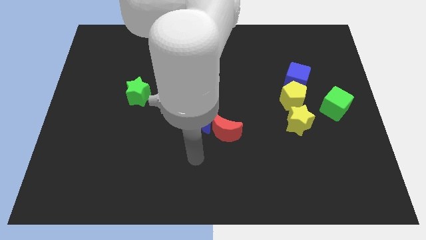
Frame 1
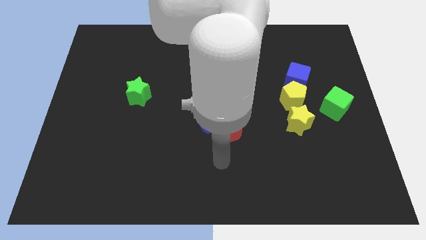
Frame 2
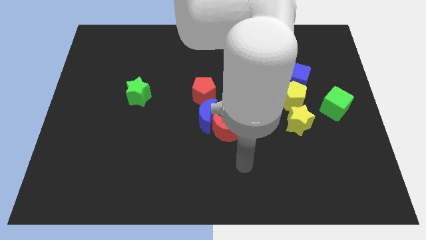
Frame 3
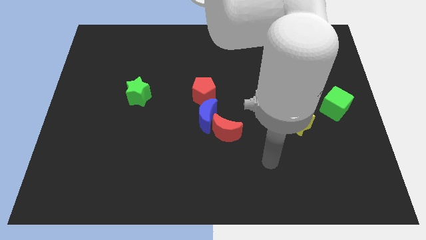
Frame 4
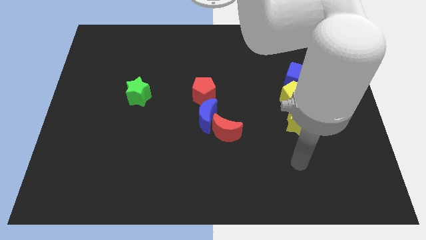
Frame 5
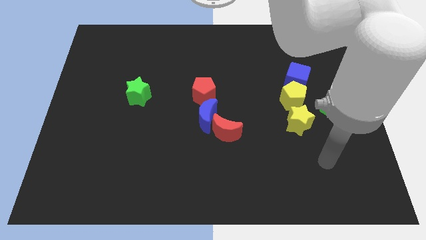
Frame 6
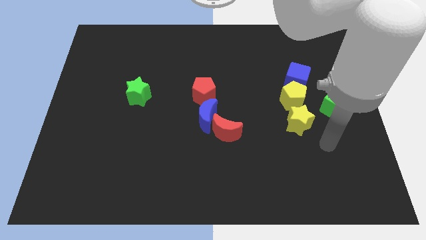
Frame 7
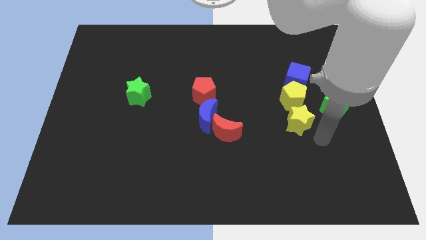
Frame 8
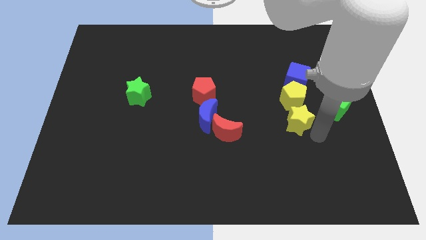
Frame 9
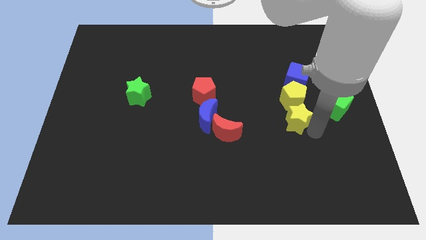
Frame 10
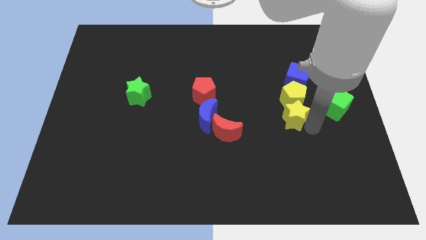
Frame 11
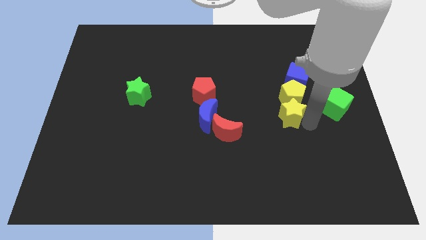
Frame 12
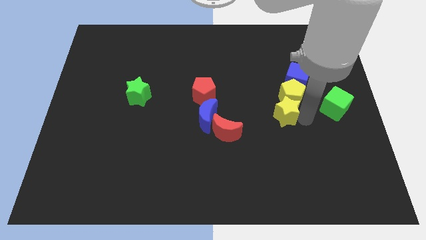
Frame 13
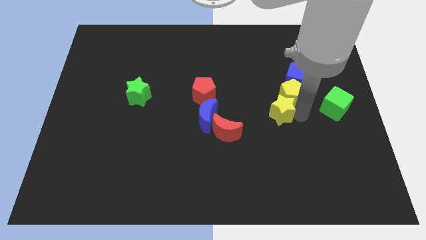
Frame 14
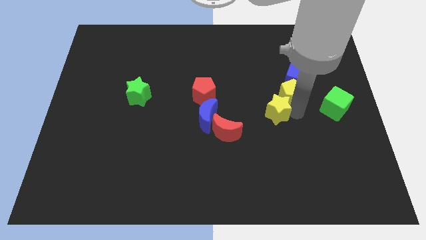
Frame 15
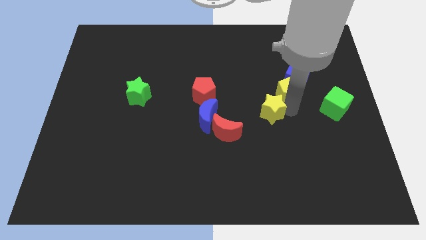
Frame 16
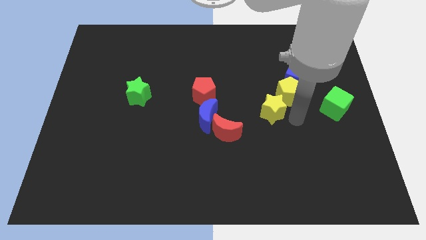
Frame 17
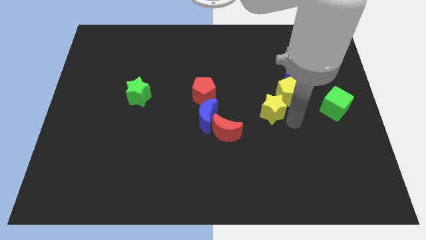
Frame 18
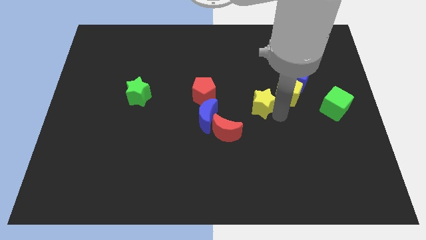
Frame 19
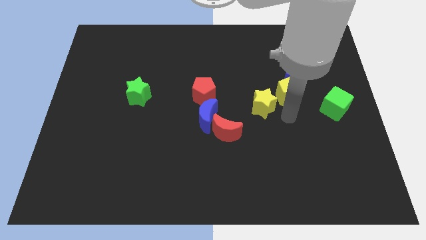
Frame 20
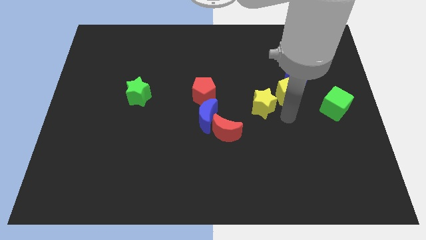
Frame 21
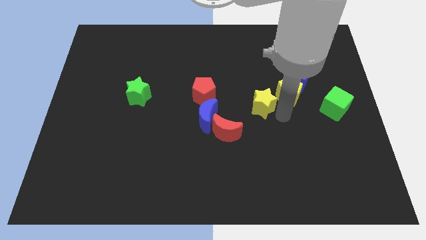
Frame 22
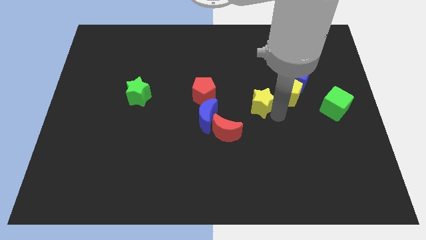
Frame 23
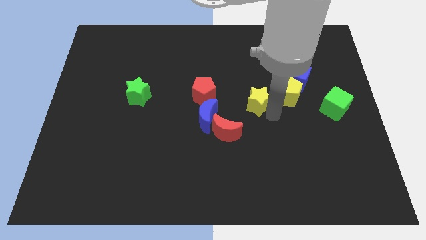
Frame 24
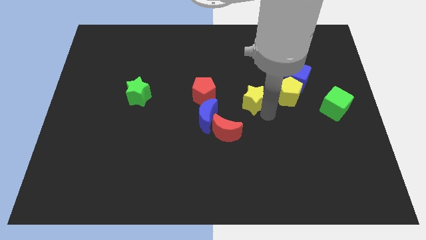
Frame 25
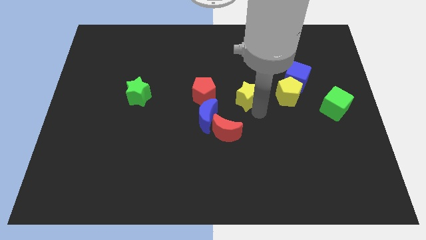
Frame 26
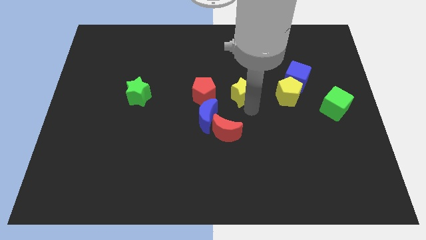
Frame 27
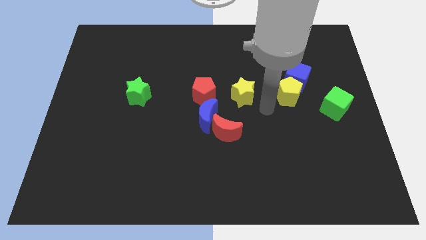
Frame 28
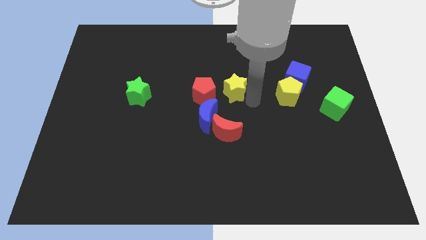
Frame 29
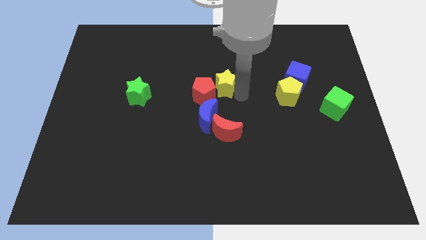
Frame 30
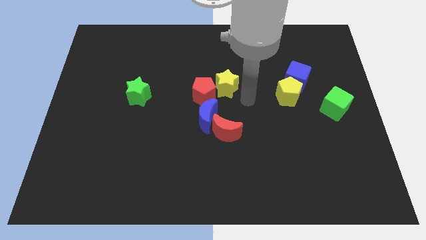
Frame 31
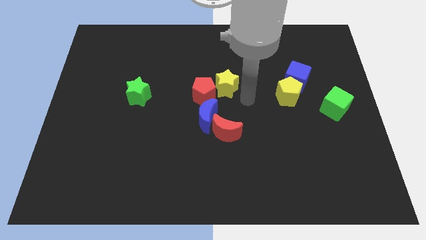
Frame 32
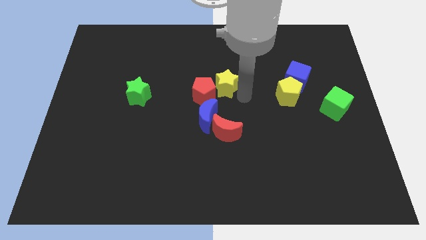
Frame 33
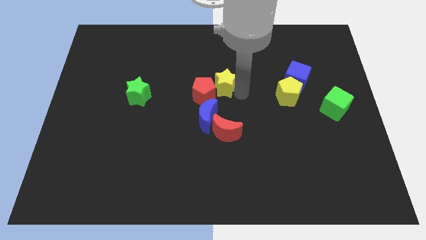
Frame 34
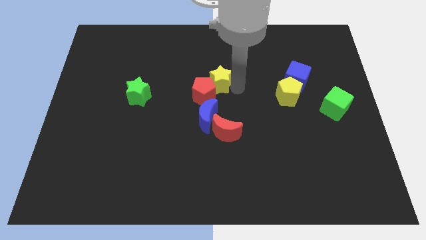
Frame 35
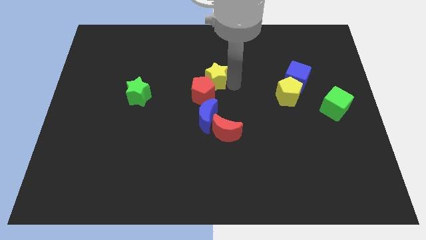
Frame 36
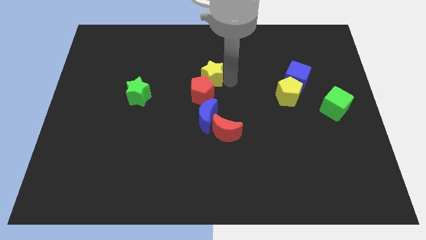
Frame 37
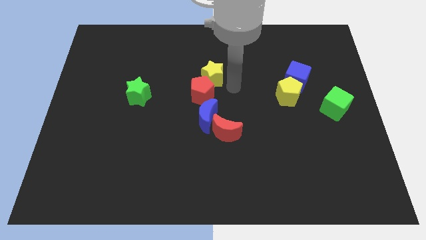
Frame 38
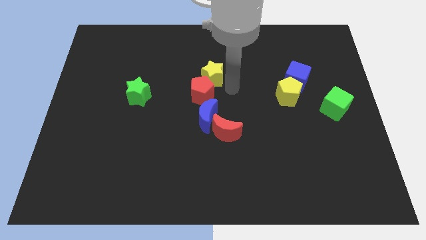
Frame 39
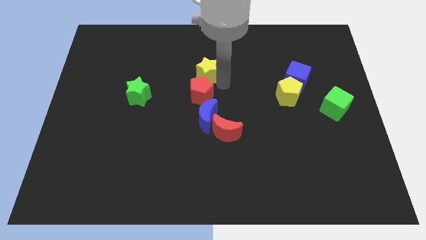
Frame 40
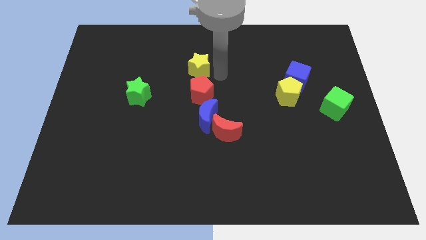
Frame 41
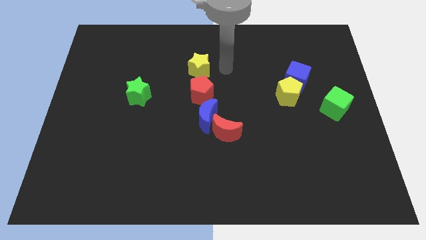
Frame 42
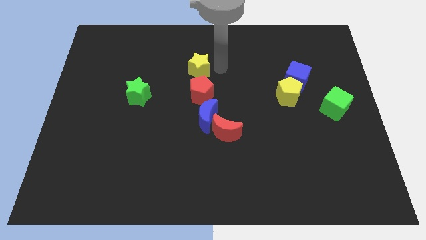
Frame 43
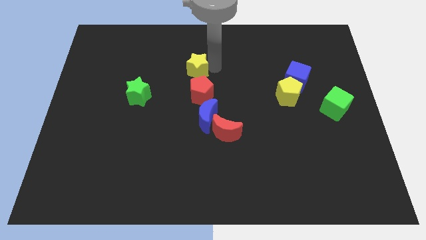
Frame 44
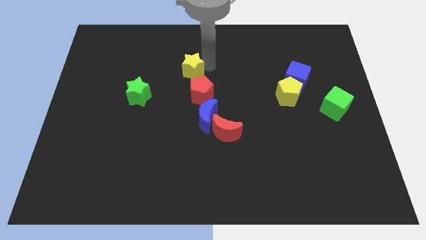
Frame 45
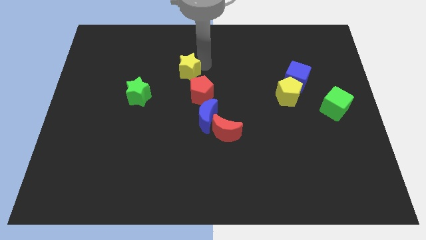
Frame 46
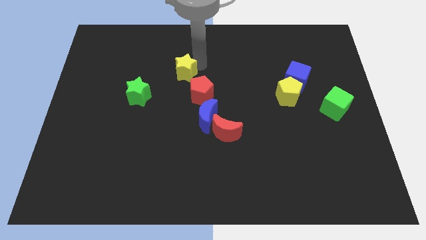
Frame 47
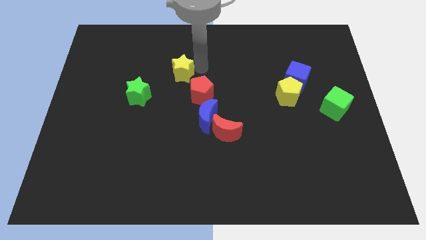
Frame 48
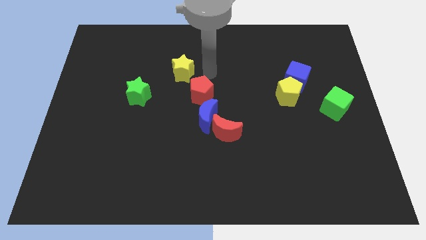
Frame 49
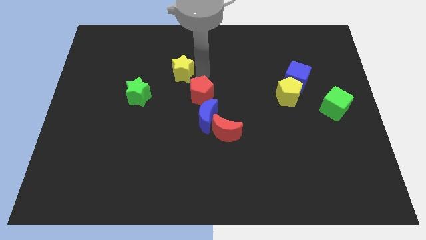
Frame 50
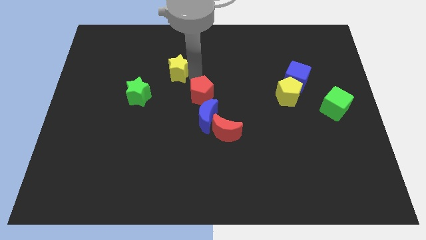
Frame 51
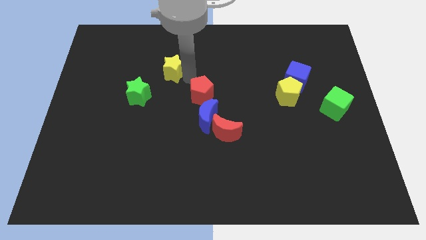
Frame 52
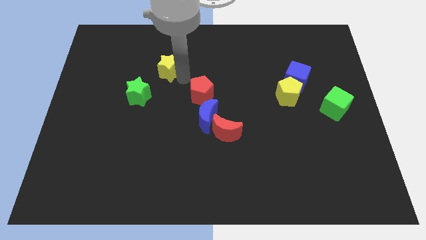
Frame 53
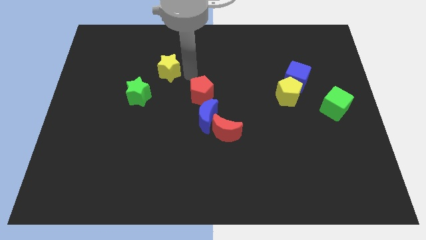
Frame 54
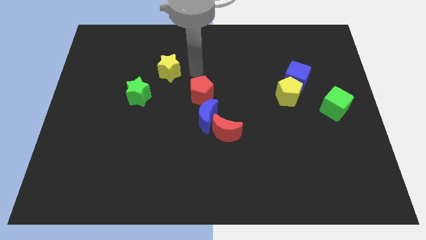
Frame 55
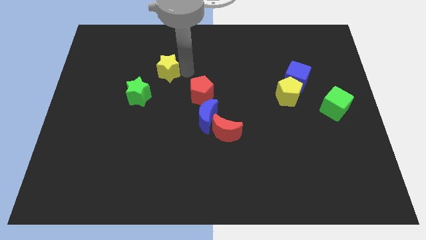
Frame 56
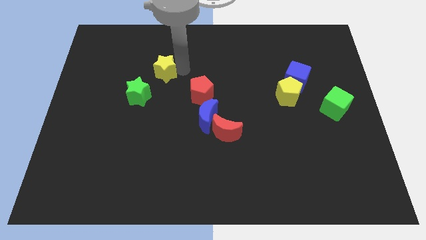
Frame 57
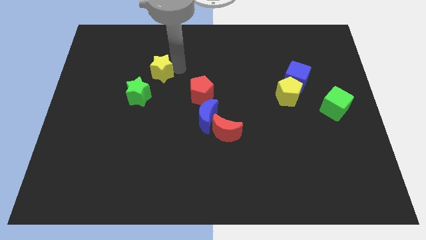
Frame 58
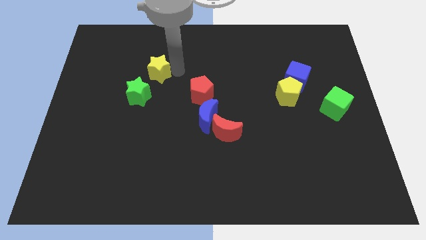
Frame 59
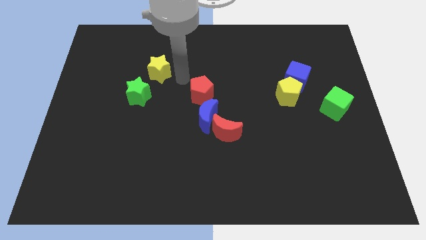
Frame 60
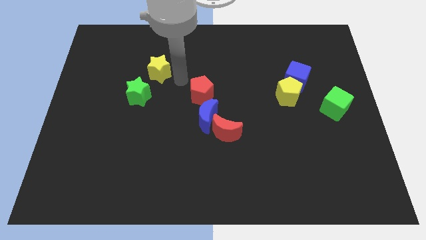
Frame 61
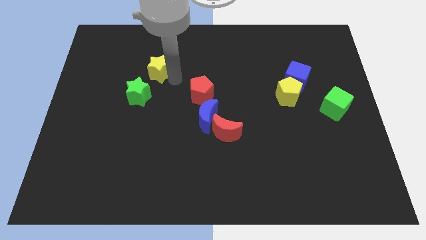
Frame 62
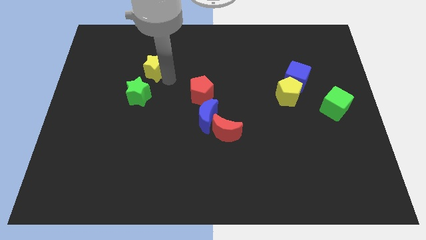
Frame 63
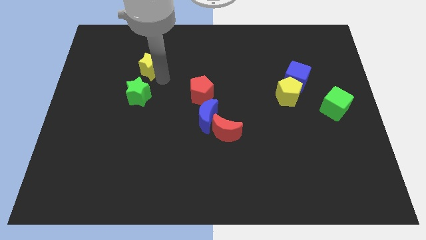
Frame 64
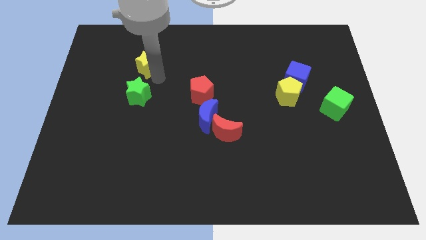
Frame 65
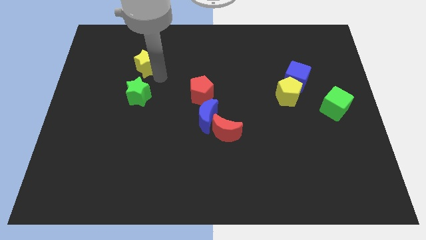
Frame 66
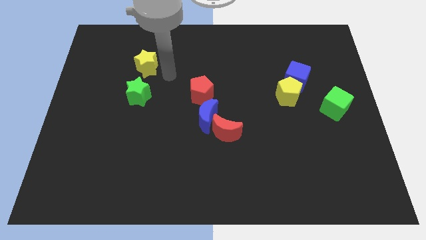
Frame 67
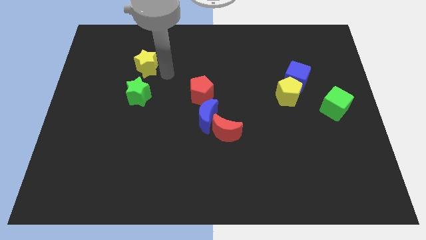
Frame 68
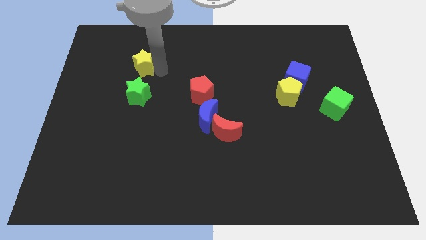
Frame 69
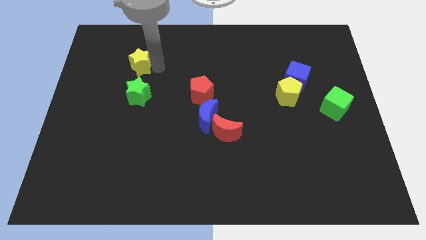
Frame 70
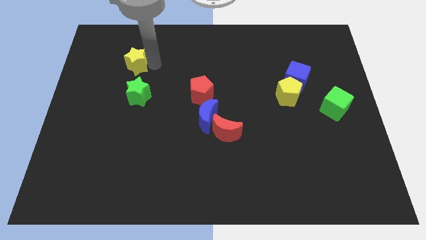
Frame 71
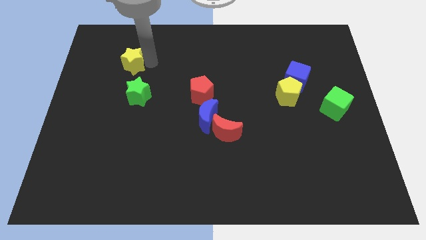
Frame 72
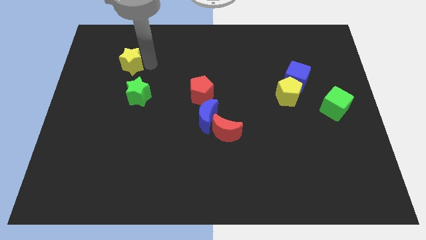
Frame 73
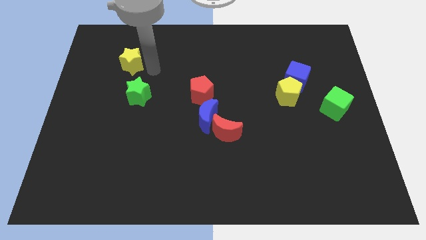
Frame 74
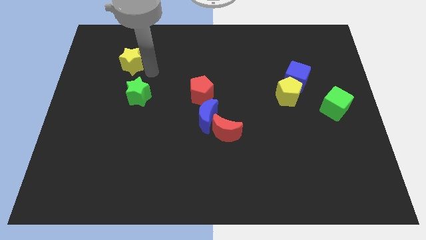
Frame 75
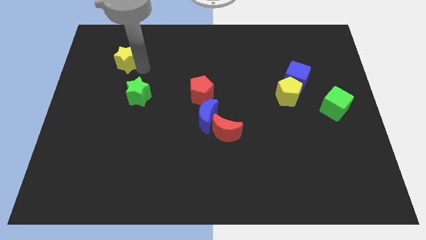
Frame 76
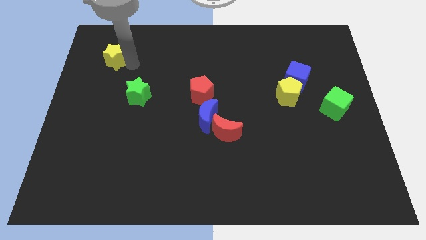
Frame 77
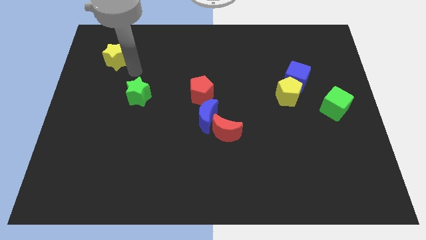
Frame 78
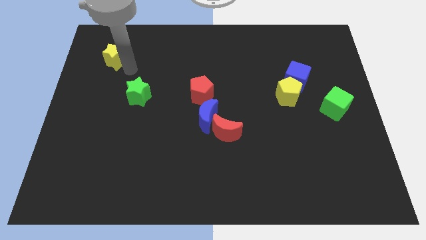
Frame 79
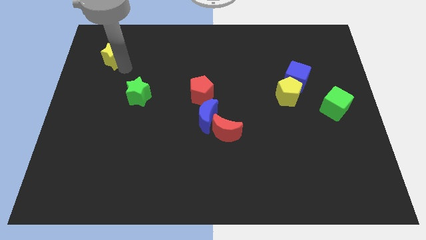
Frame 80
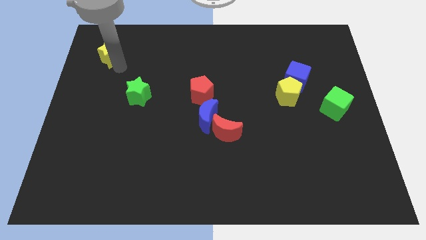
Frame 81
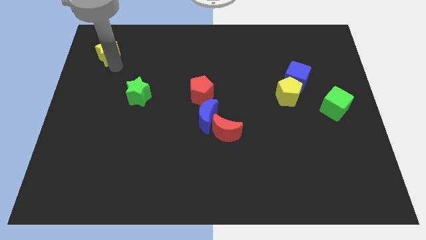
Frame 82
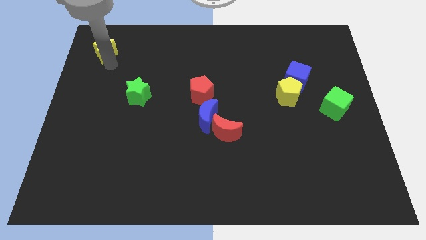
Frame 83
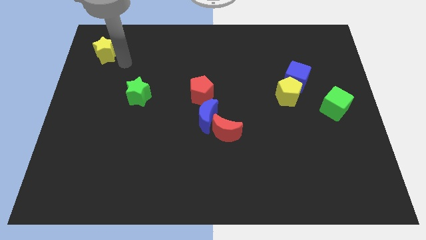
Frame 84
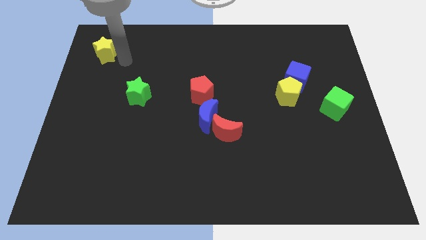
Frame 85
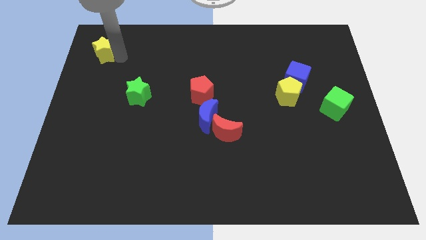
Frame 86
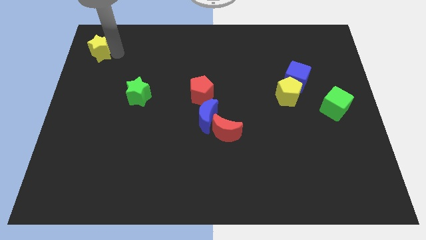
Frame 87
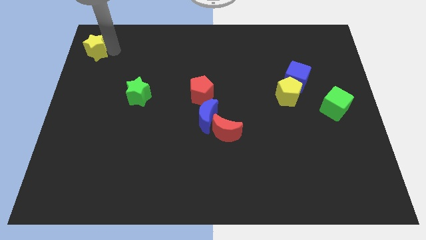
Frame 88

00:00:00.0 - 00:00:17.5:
move the yellow star to the top left corner
